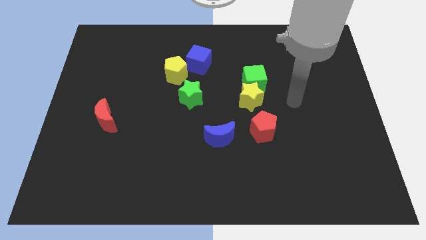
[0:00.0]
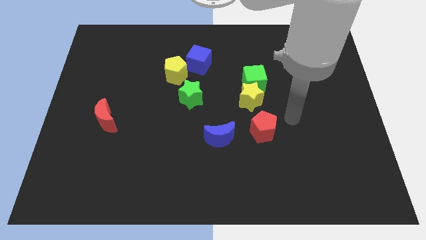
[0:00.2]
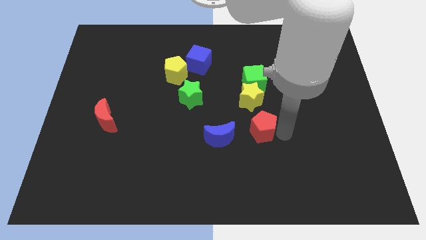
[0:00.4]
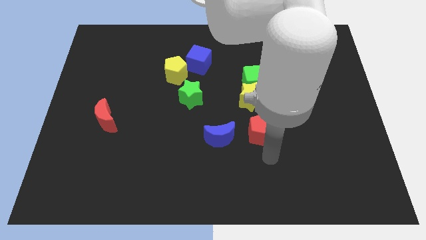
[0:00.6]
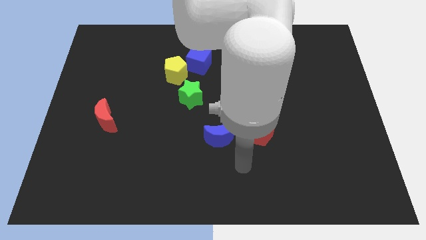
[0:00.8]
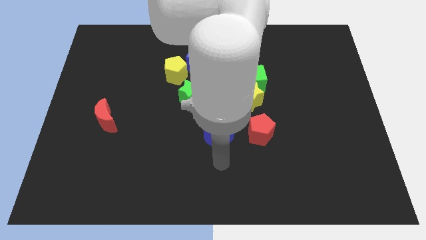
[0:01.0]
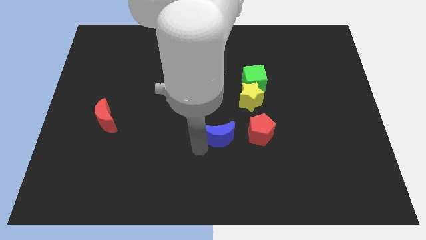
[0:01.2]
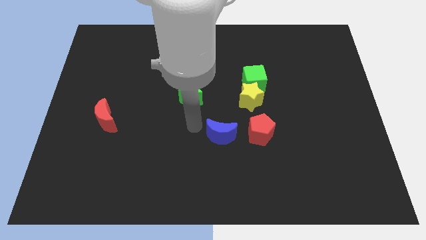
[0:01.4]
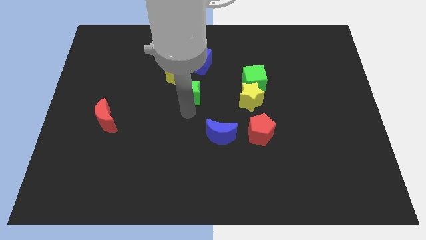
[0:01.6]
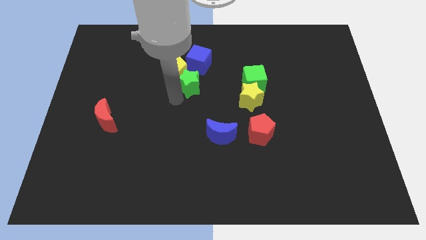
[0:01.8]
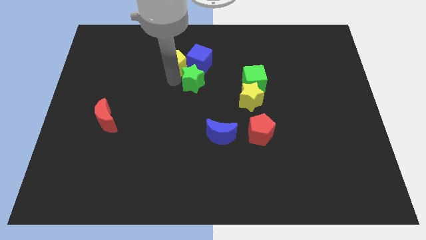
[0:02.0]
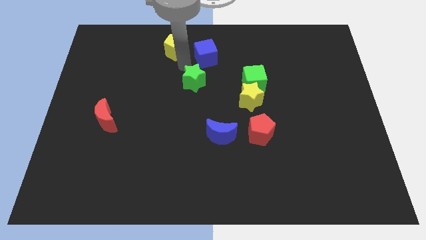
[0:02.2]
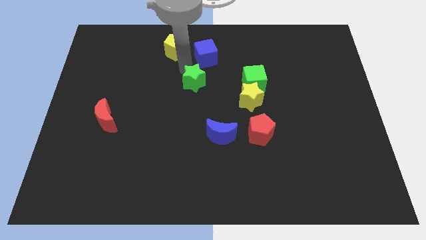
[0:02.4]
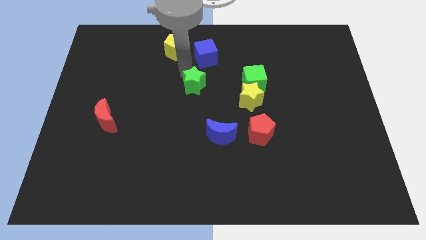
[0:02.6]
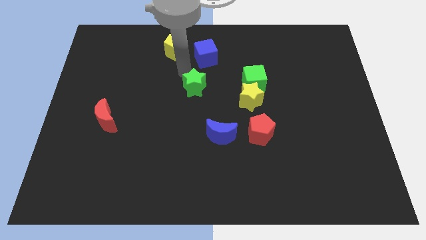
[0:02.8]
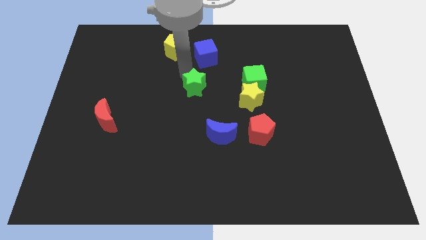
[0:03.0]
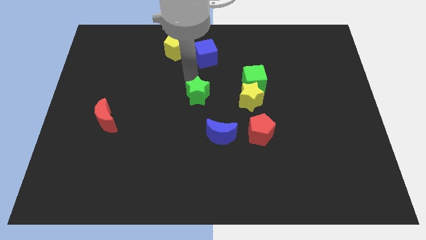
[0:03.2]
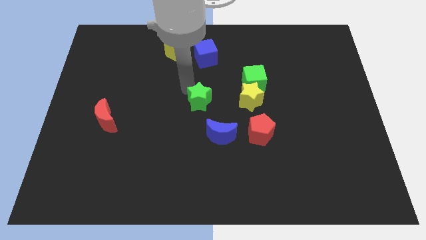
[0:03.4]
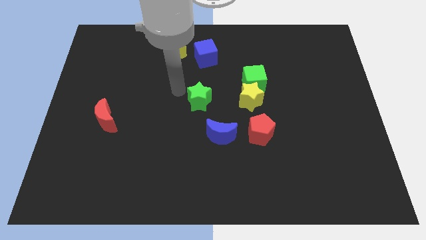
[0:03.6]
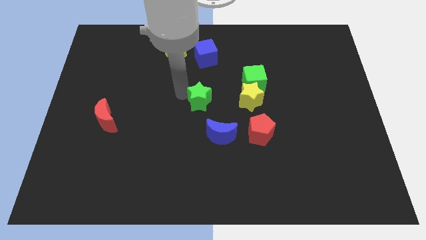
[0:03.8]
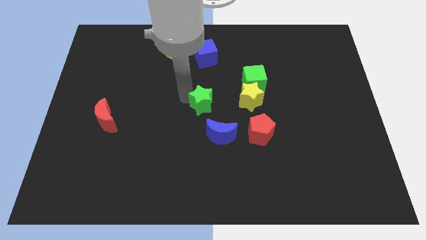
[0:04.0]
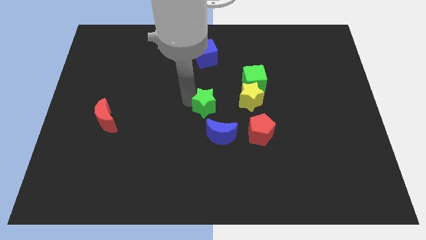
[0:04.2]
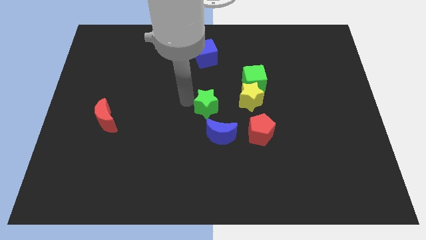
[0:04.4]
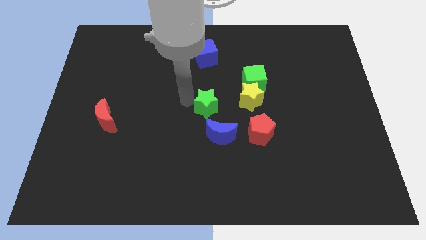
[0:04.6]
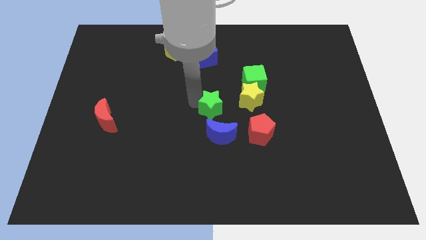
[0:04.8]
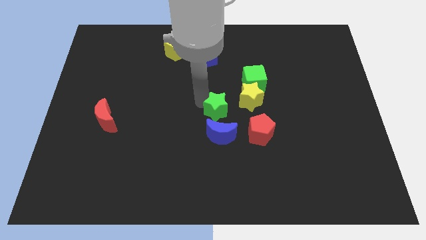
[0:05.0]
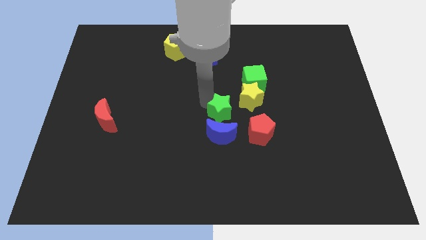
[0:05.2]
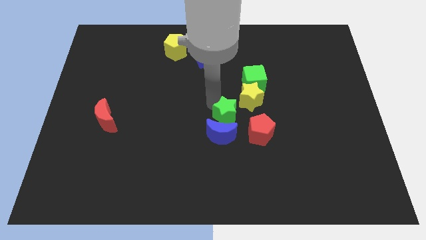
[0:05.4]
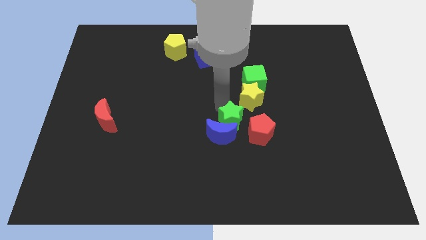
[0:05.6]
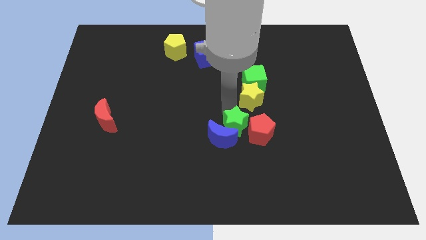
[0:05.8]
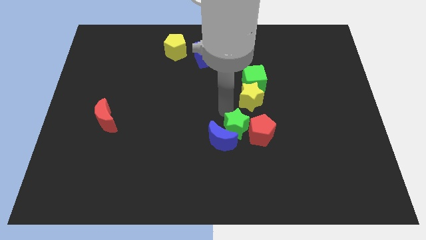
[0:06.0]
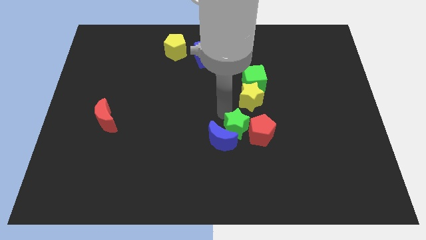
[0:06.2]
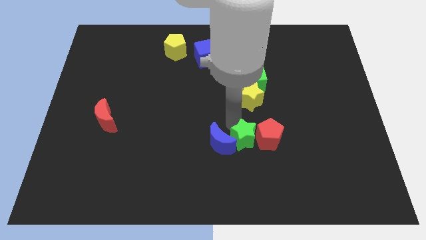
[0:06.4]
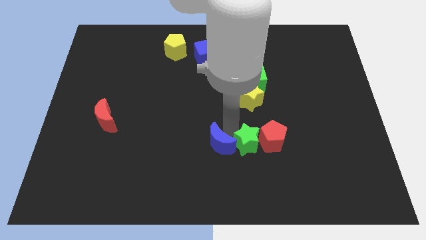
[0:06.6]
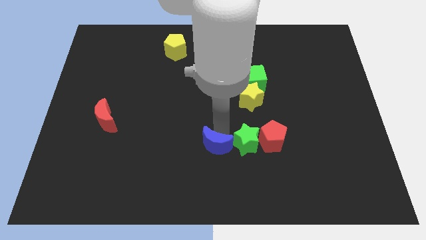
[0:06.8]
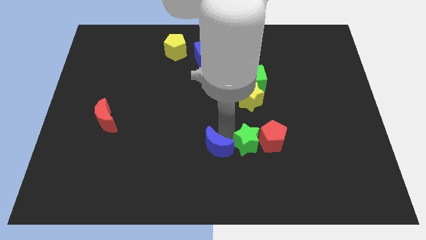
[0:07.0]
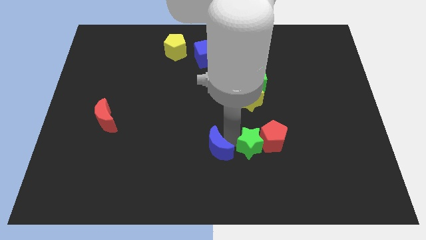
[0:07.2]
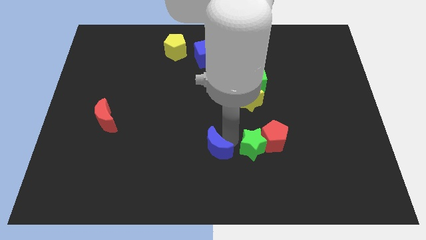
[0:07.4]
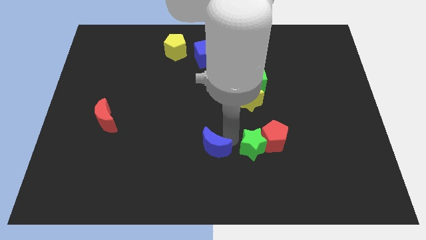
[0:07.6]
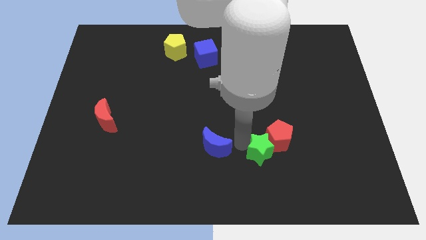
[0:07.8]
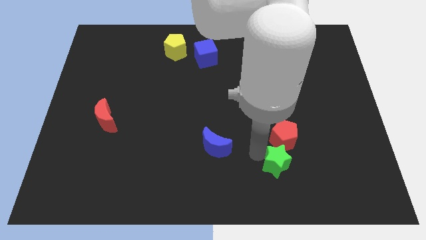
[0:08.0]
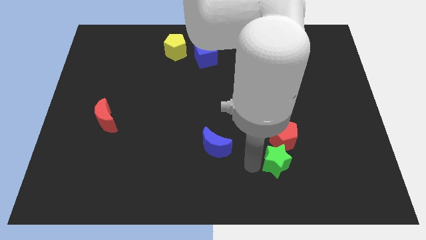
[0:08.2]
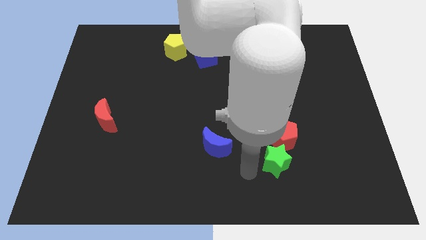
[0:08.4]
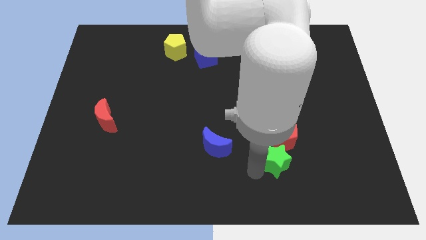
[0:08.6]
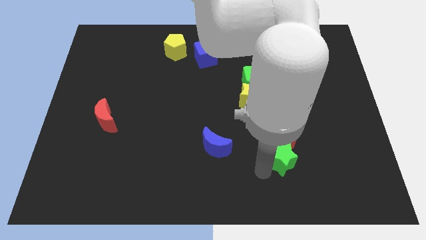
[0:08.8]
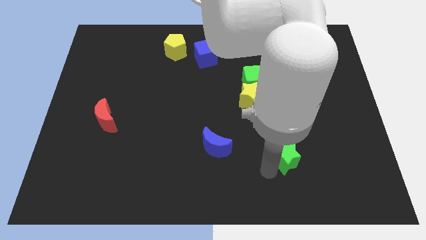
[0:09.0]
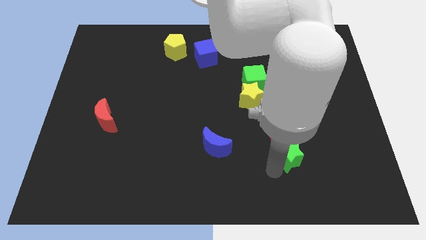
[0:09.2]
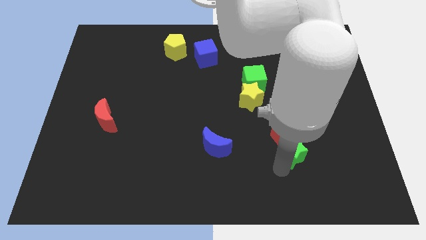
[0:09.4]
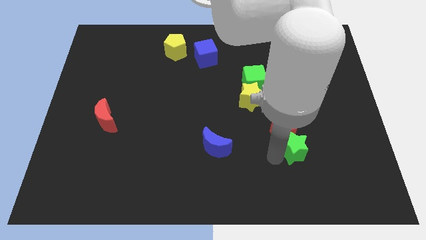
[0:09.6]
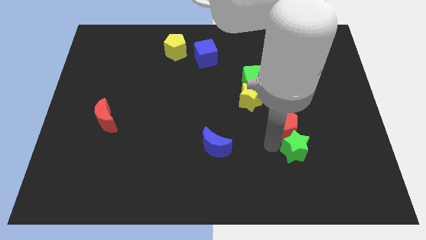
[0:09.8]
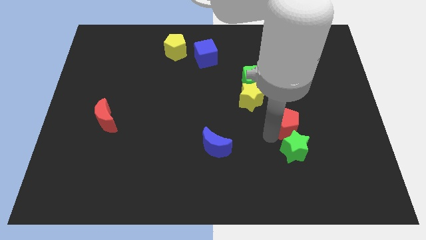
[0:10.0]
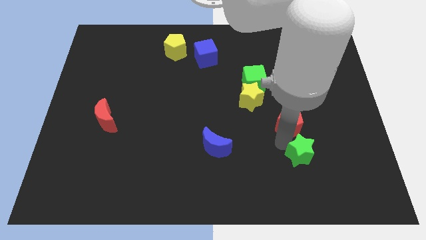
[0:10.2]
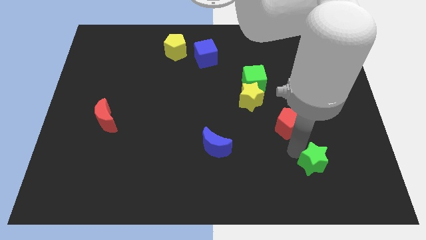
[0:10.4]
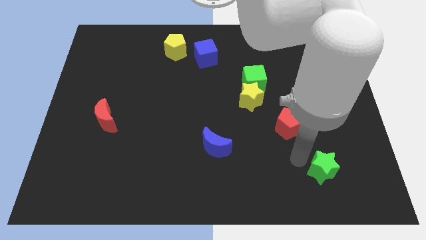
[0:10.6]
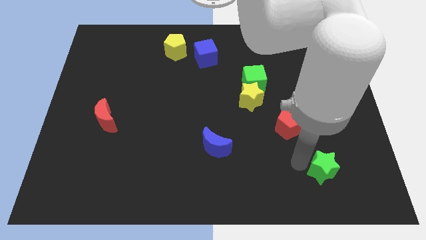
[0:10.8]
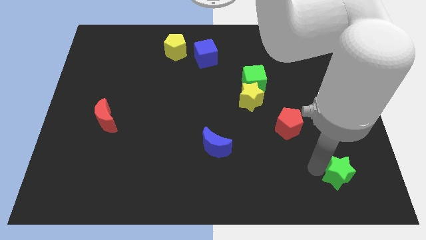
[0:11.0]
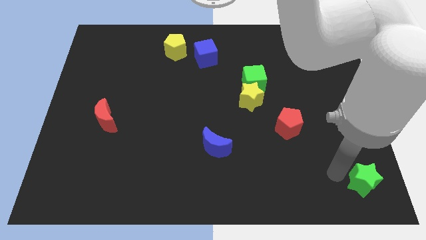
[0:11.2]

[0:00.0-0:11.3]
slide the green star to the lower right corner
